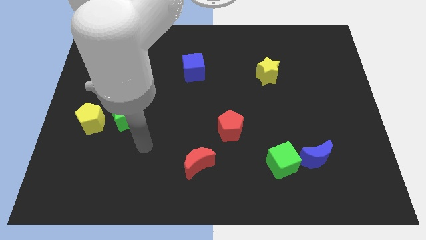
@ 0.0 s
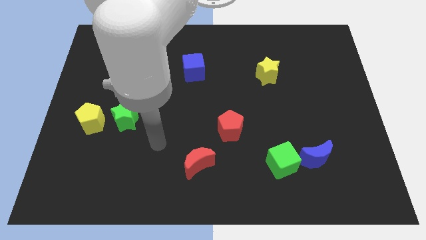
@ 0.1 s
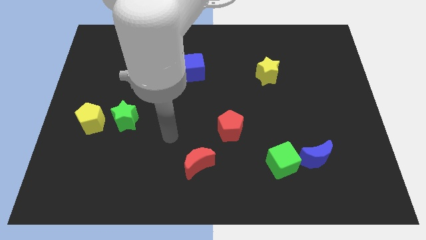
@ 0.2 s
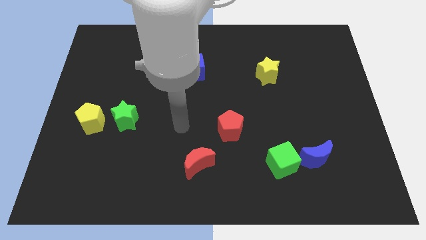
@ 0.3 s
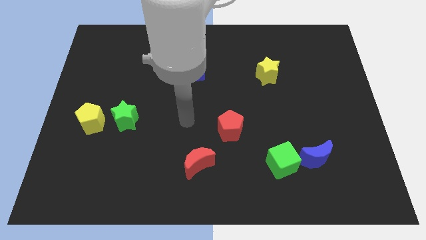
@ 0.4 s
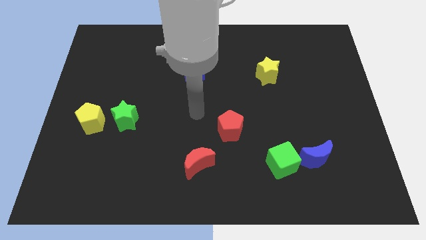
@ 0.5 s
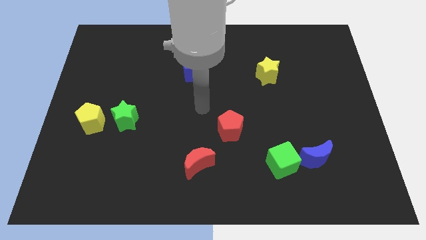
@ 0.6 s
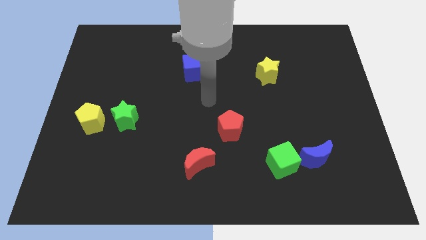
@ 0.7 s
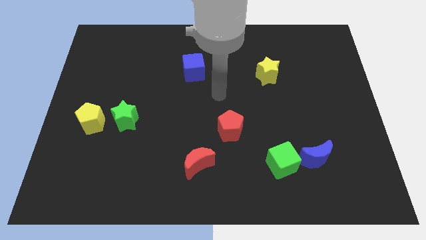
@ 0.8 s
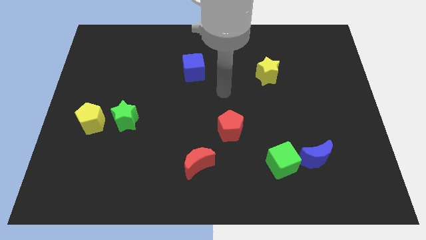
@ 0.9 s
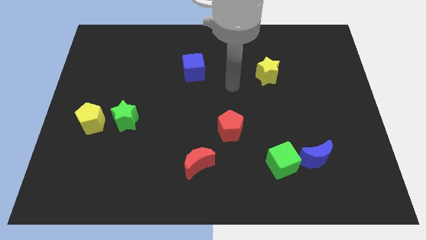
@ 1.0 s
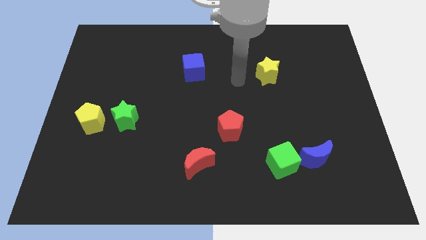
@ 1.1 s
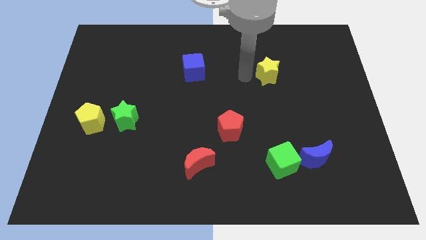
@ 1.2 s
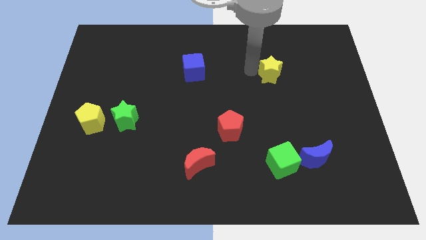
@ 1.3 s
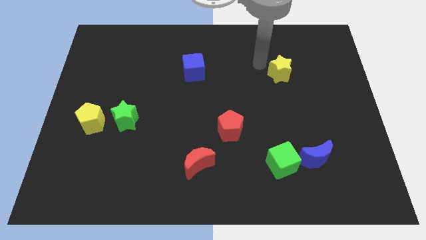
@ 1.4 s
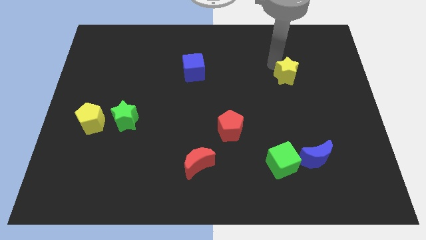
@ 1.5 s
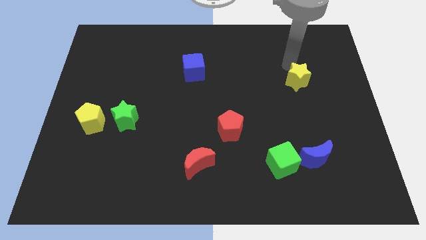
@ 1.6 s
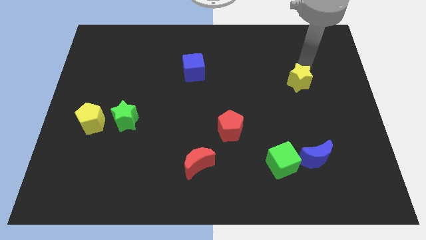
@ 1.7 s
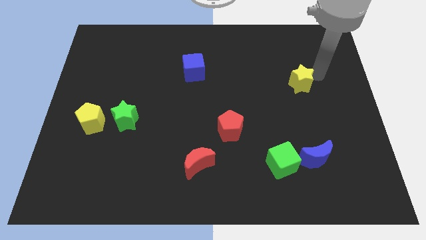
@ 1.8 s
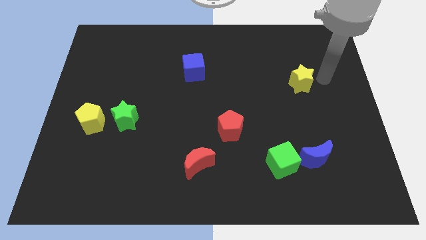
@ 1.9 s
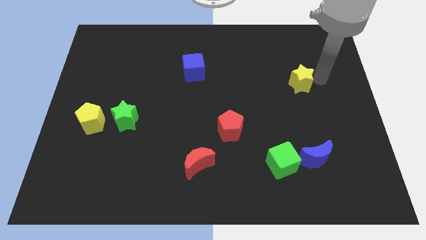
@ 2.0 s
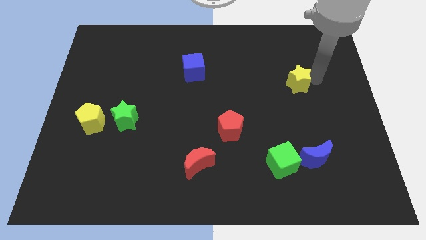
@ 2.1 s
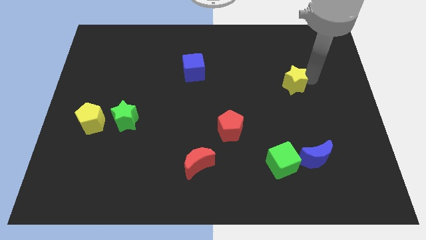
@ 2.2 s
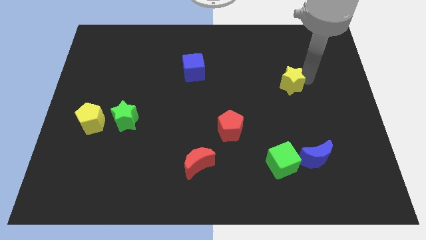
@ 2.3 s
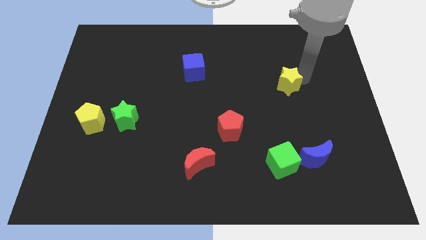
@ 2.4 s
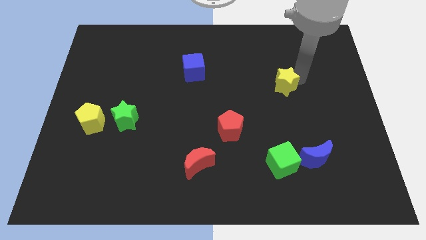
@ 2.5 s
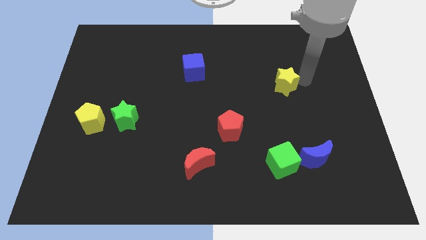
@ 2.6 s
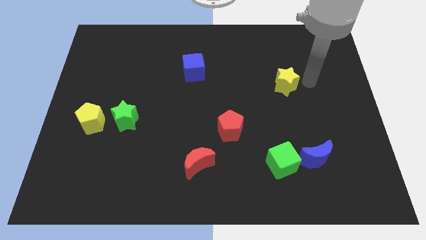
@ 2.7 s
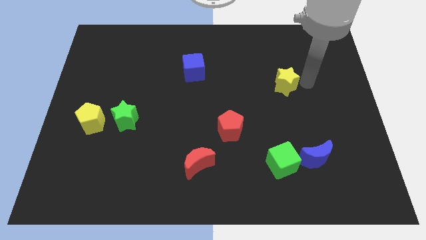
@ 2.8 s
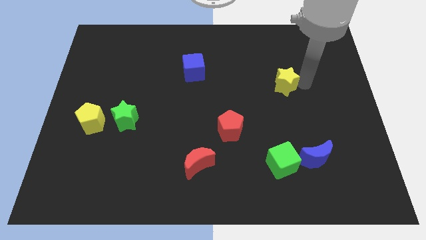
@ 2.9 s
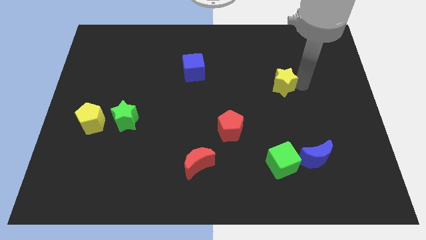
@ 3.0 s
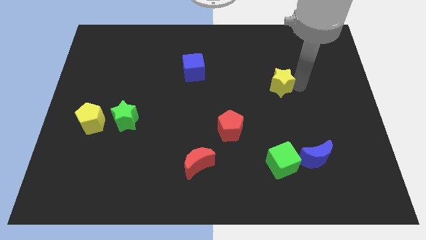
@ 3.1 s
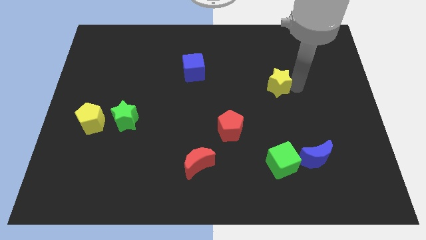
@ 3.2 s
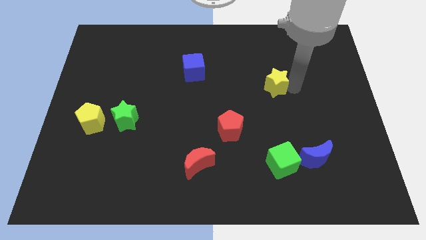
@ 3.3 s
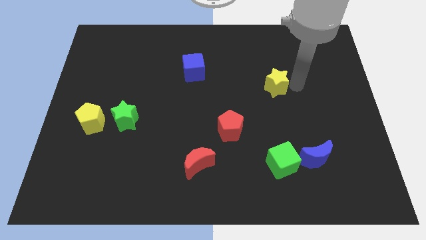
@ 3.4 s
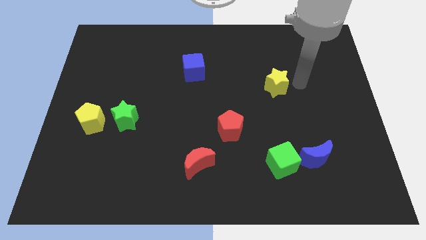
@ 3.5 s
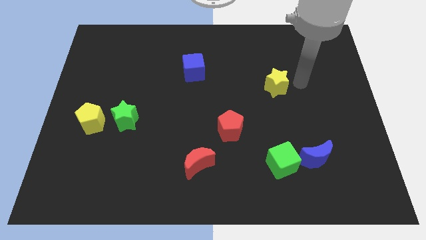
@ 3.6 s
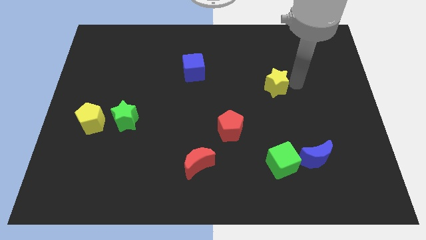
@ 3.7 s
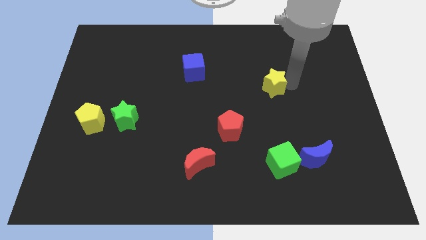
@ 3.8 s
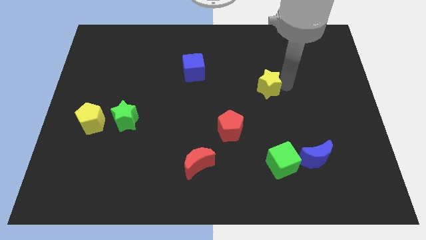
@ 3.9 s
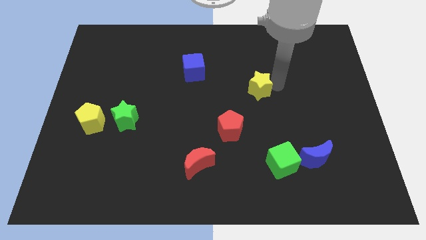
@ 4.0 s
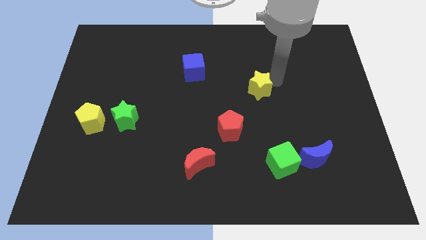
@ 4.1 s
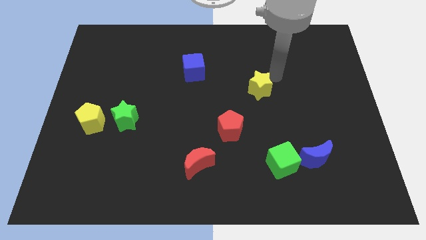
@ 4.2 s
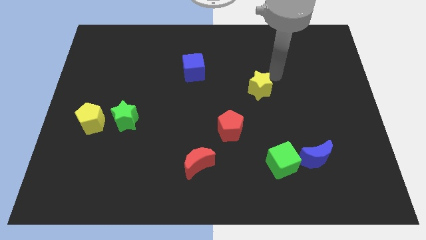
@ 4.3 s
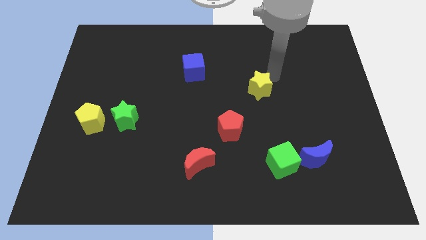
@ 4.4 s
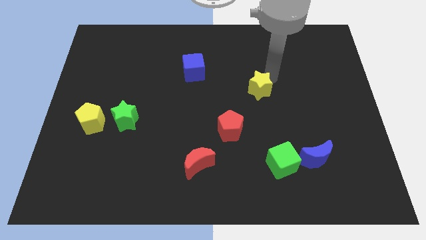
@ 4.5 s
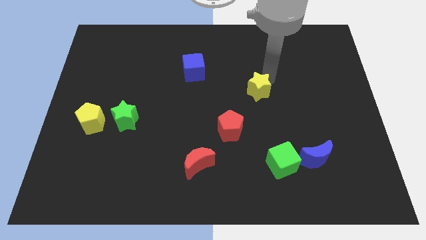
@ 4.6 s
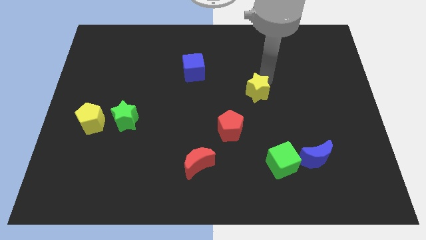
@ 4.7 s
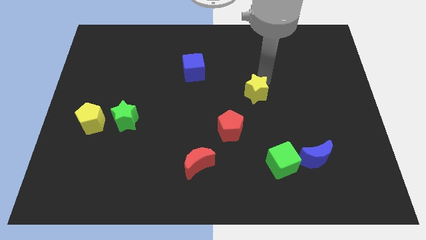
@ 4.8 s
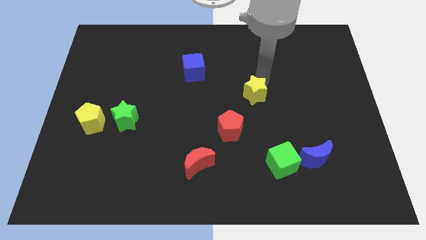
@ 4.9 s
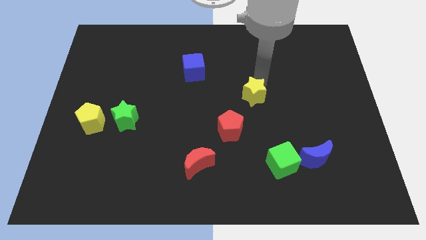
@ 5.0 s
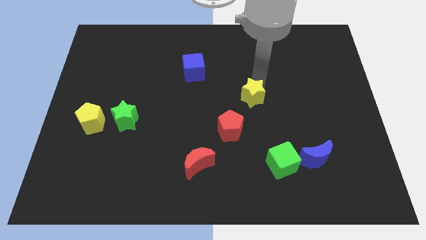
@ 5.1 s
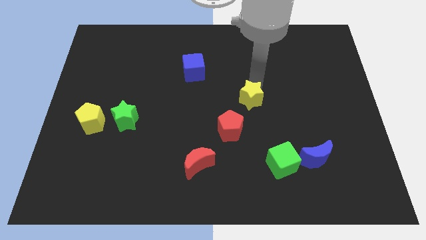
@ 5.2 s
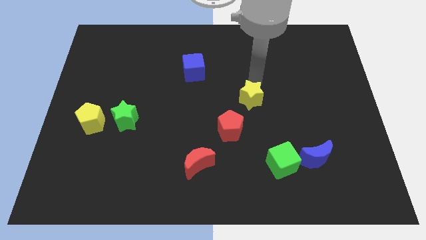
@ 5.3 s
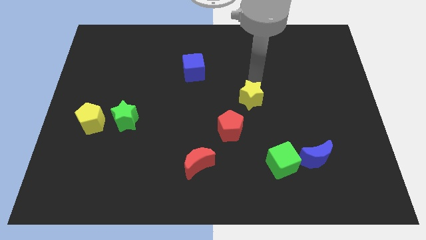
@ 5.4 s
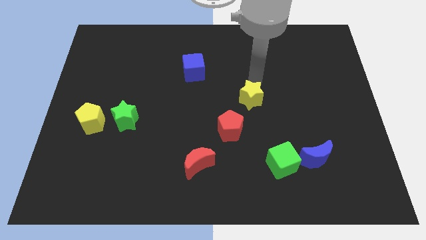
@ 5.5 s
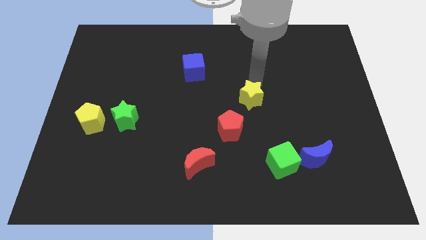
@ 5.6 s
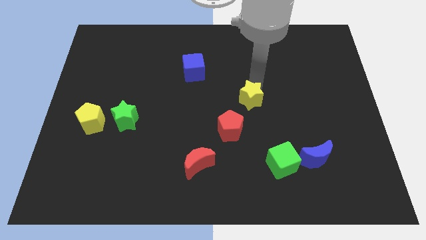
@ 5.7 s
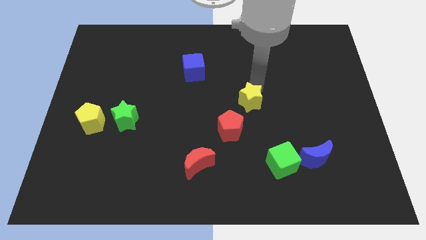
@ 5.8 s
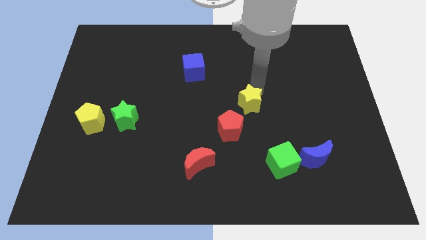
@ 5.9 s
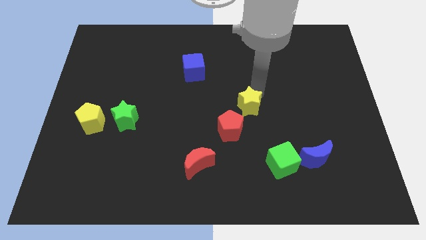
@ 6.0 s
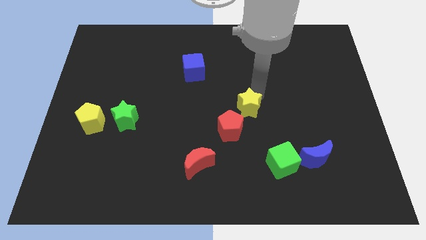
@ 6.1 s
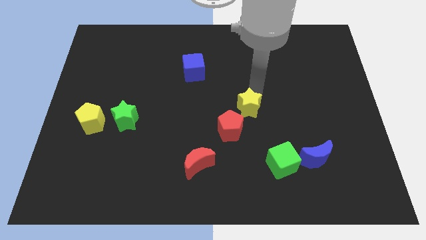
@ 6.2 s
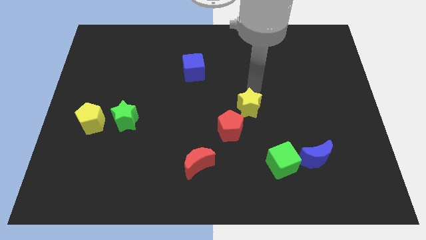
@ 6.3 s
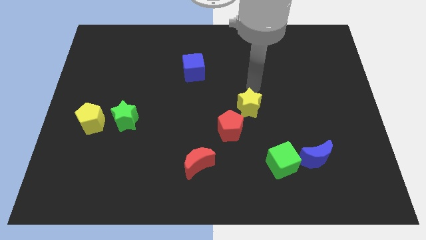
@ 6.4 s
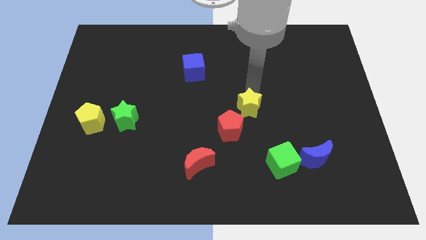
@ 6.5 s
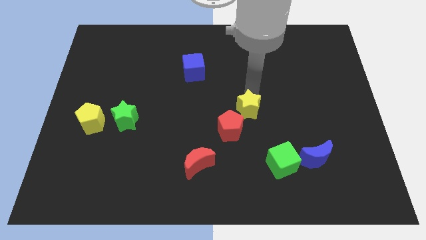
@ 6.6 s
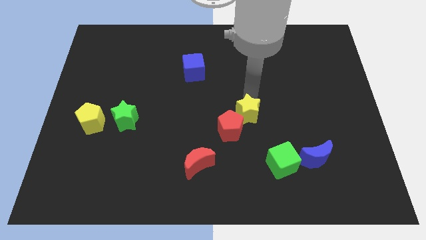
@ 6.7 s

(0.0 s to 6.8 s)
slide the yellow star close to the red pentagon
